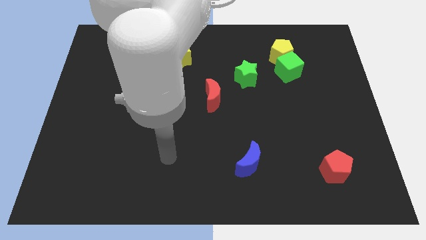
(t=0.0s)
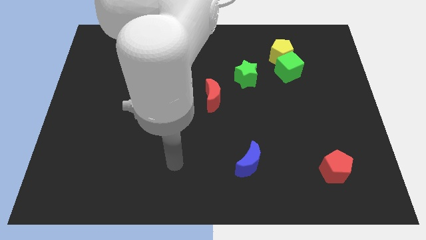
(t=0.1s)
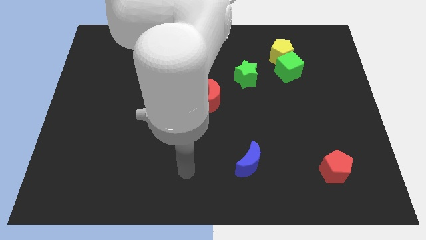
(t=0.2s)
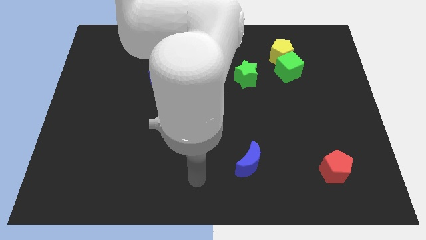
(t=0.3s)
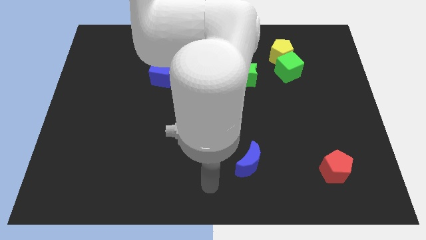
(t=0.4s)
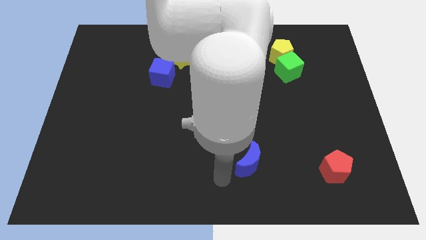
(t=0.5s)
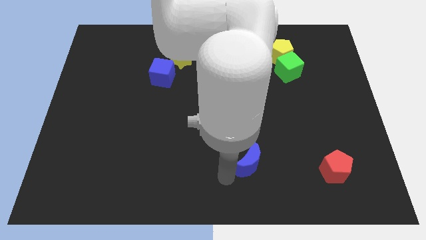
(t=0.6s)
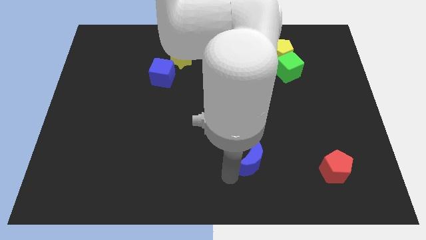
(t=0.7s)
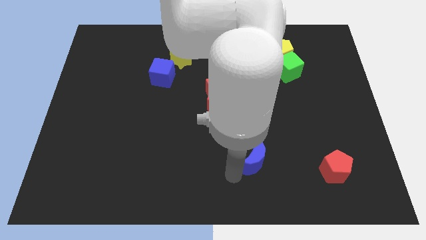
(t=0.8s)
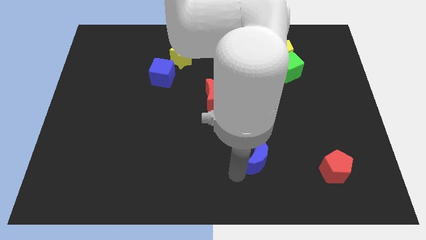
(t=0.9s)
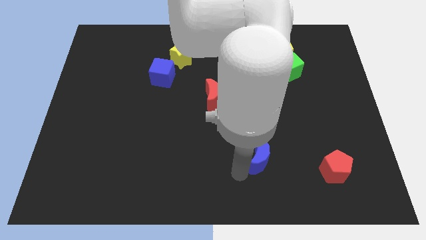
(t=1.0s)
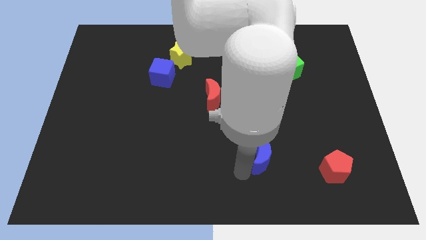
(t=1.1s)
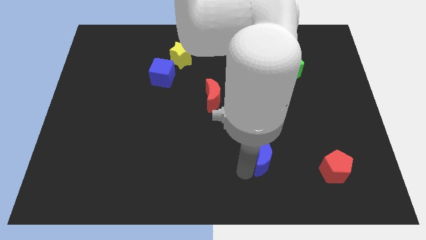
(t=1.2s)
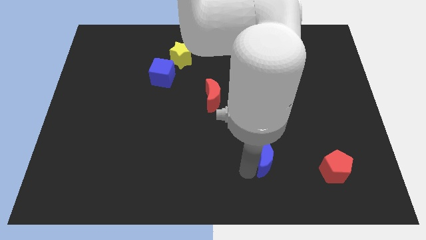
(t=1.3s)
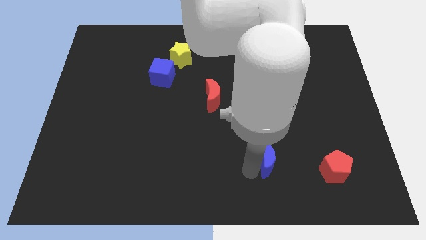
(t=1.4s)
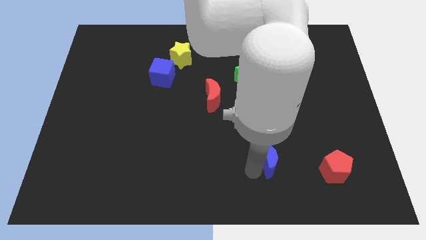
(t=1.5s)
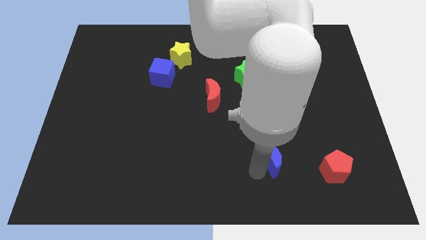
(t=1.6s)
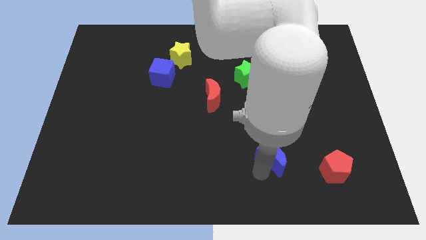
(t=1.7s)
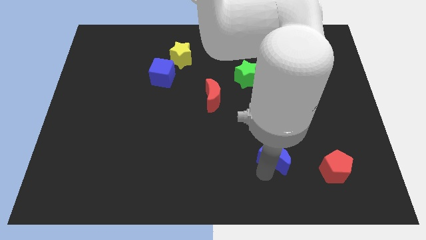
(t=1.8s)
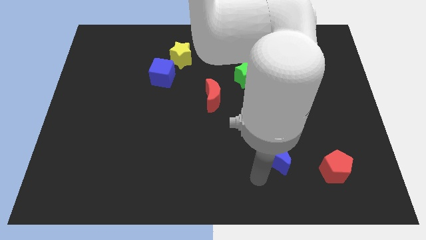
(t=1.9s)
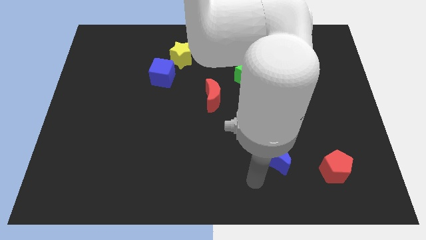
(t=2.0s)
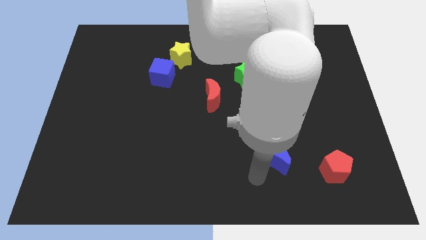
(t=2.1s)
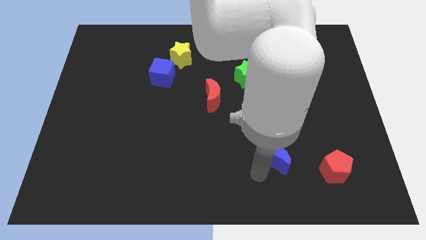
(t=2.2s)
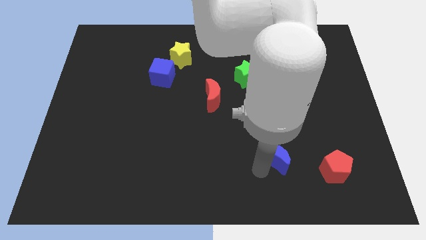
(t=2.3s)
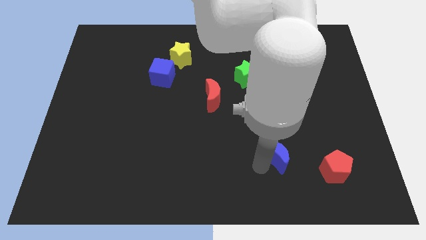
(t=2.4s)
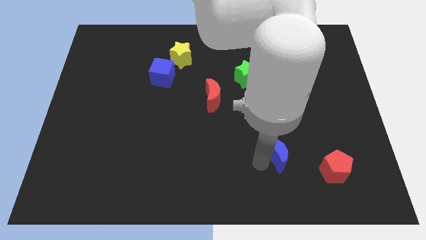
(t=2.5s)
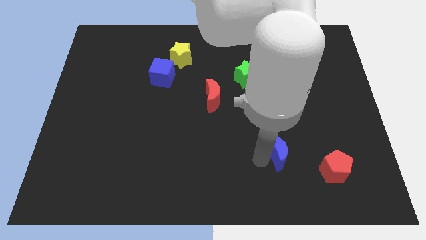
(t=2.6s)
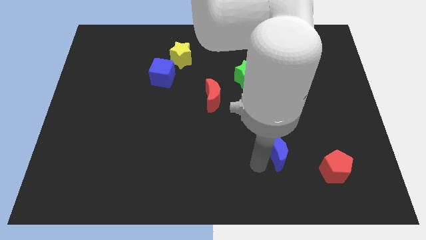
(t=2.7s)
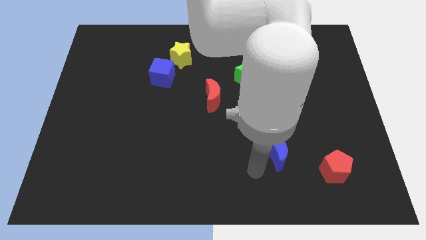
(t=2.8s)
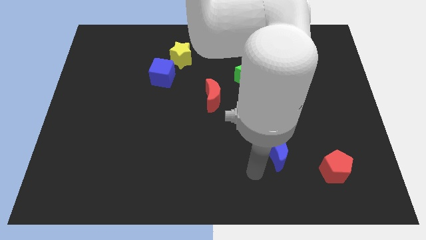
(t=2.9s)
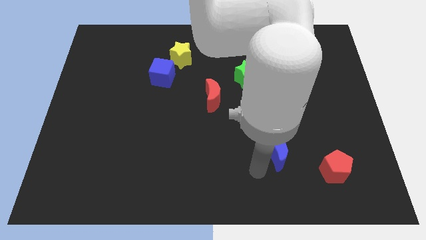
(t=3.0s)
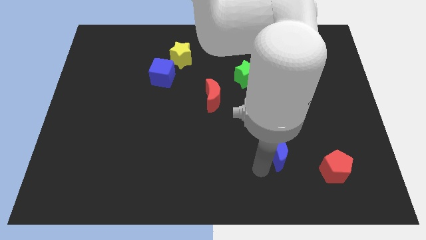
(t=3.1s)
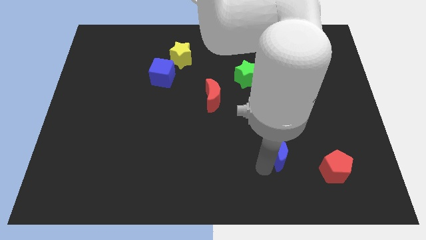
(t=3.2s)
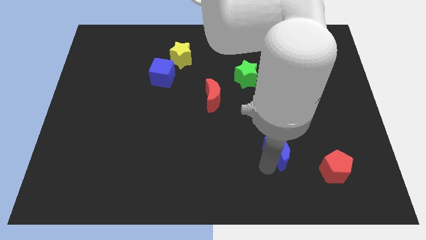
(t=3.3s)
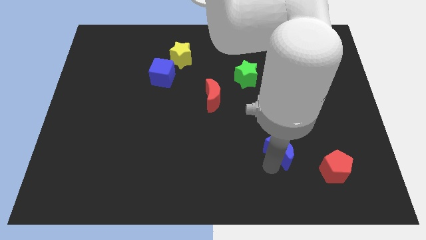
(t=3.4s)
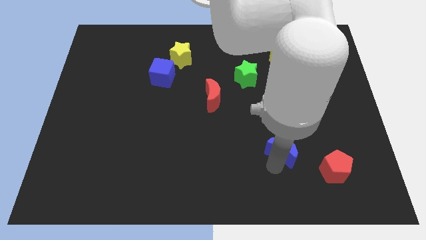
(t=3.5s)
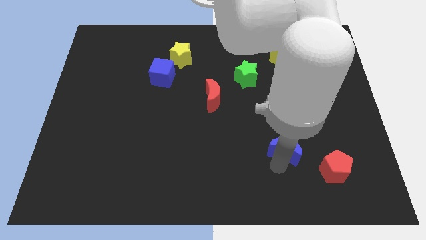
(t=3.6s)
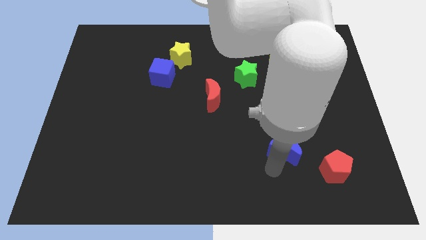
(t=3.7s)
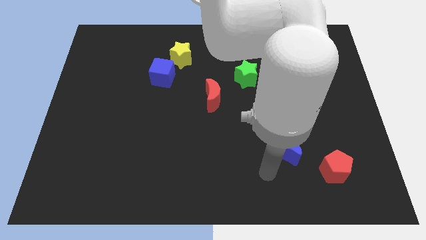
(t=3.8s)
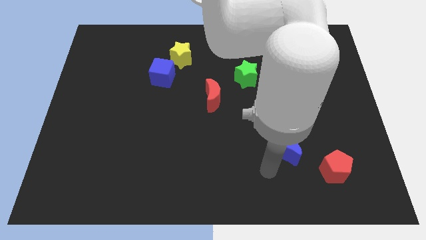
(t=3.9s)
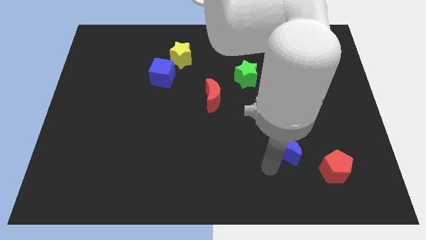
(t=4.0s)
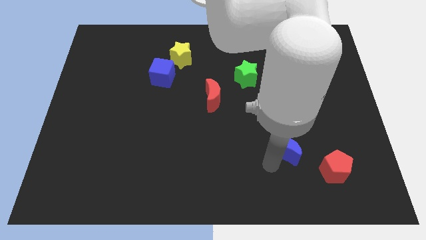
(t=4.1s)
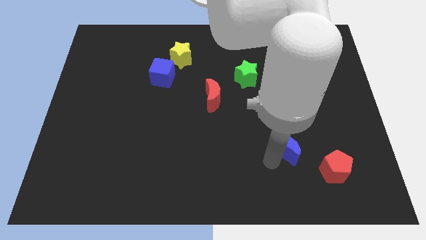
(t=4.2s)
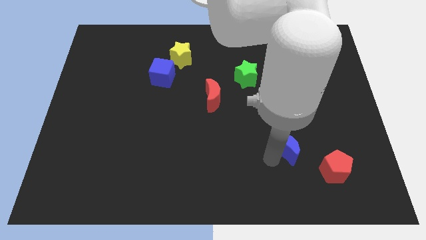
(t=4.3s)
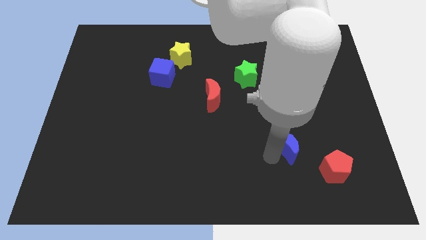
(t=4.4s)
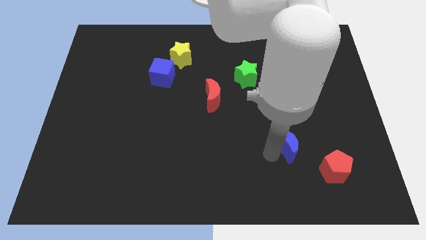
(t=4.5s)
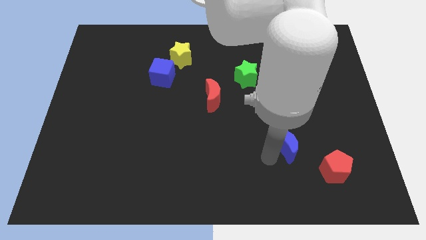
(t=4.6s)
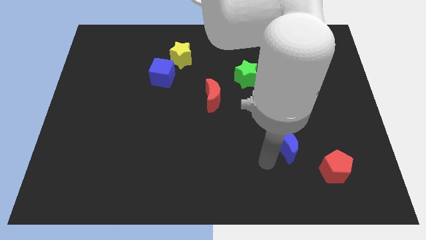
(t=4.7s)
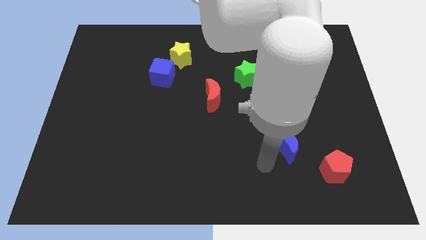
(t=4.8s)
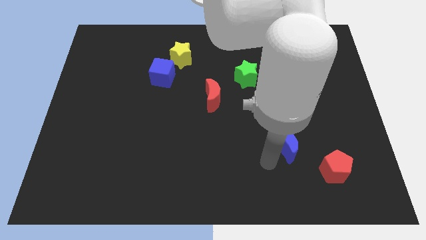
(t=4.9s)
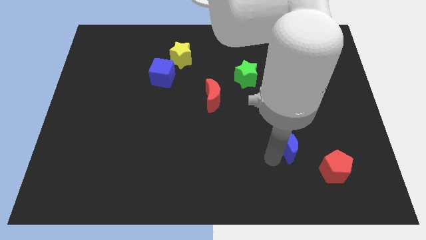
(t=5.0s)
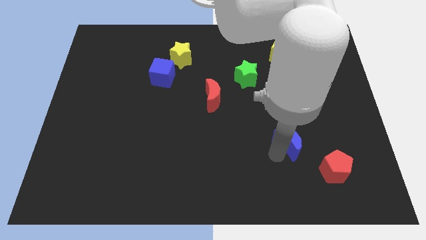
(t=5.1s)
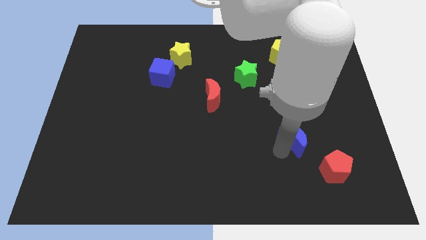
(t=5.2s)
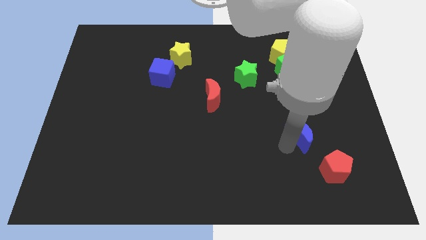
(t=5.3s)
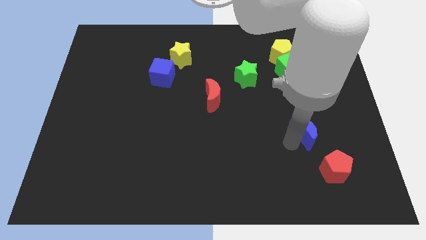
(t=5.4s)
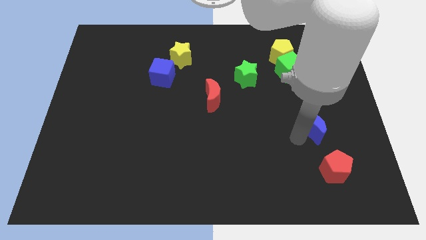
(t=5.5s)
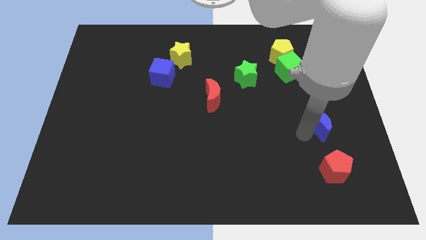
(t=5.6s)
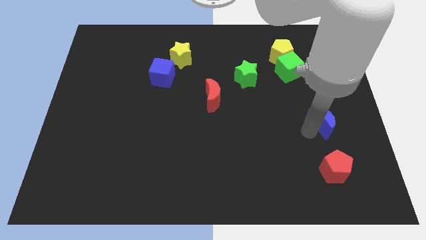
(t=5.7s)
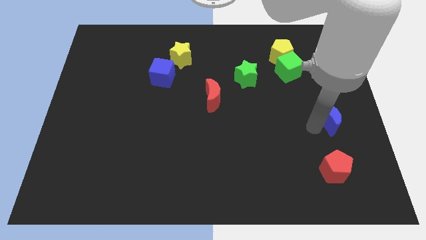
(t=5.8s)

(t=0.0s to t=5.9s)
move the blue moon to the right side of the board

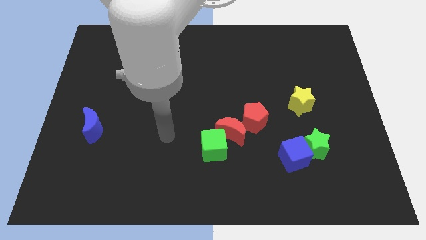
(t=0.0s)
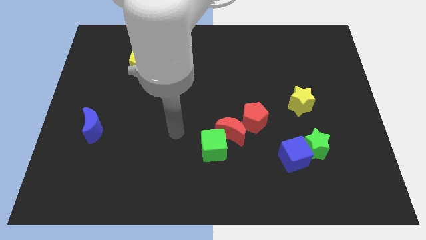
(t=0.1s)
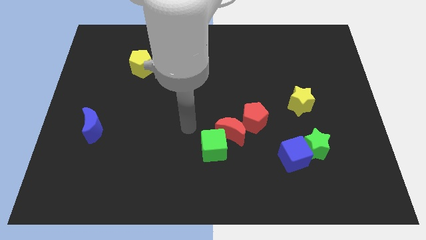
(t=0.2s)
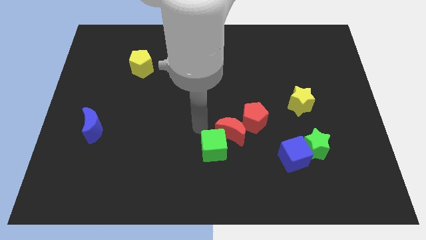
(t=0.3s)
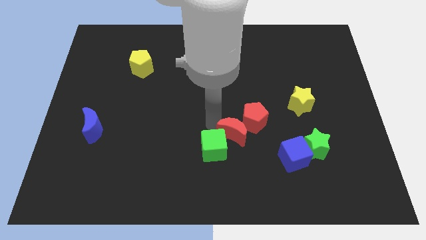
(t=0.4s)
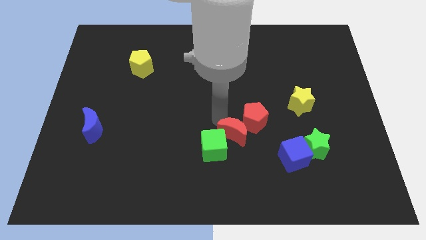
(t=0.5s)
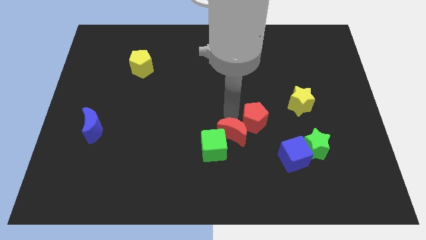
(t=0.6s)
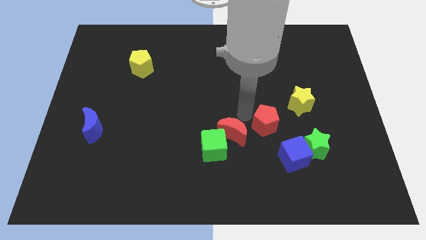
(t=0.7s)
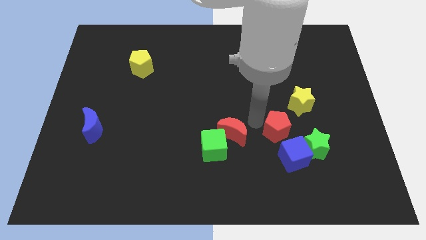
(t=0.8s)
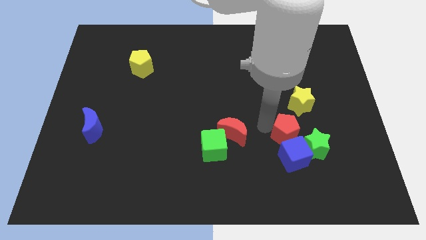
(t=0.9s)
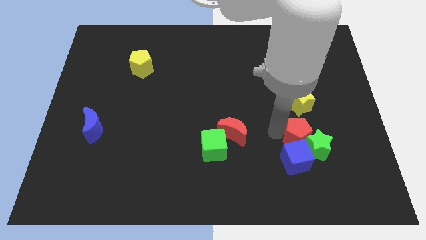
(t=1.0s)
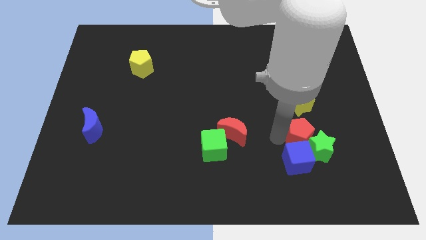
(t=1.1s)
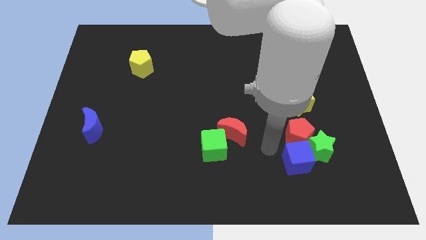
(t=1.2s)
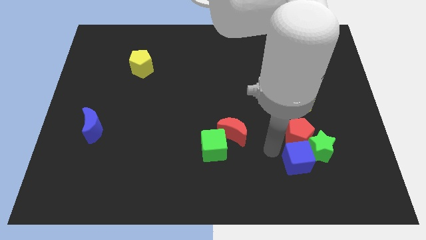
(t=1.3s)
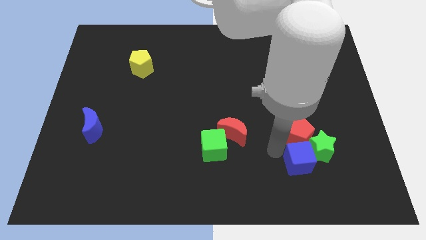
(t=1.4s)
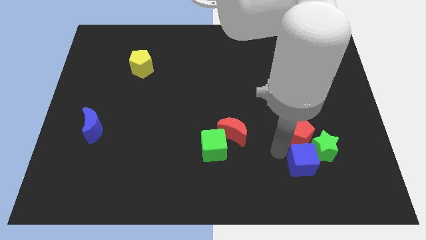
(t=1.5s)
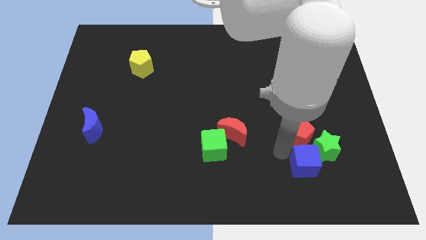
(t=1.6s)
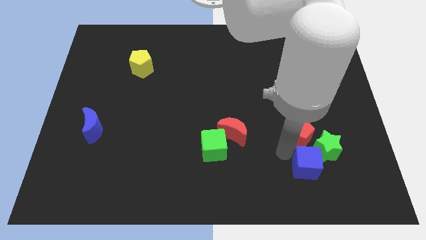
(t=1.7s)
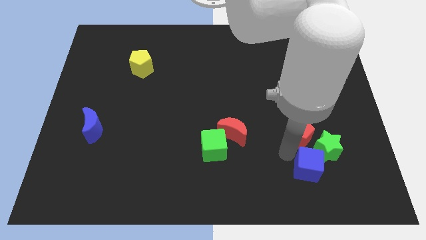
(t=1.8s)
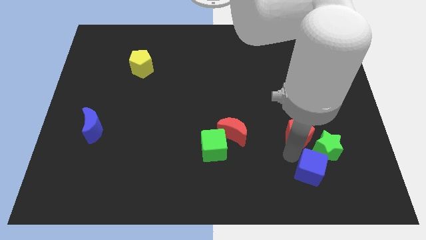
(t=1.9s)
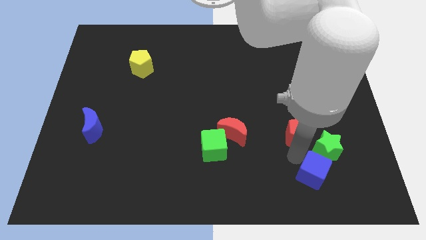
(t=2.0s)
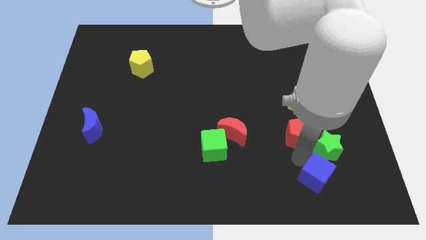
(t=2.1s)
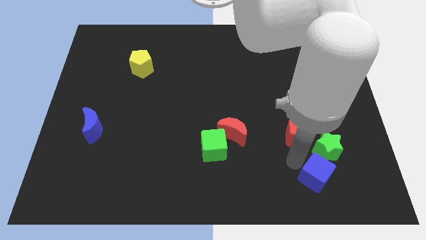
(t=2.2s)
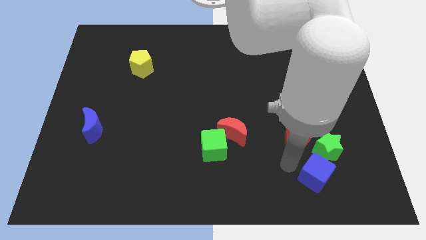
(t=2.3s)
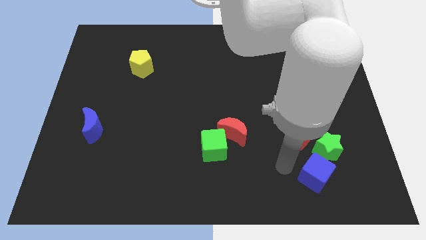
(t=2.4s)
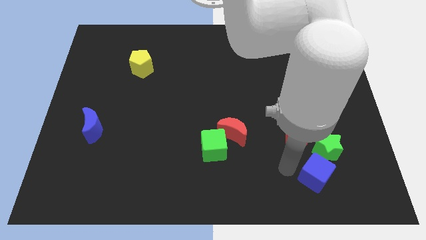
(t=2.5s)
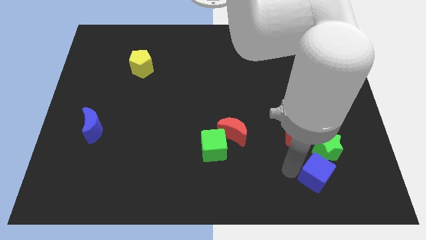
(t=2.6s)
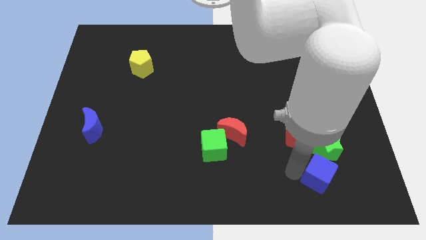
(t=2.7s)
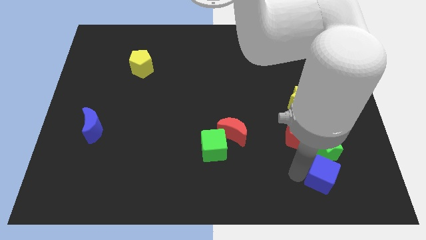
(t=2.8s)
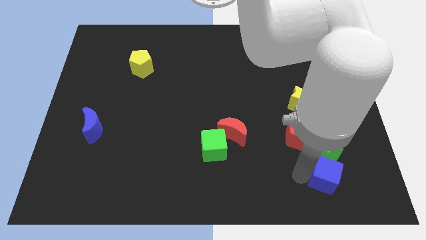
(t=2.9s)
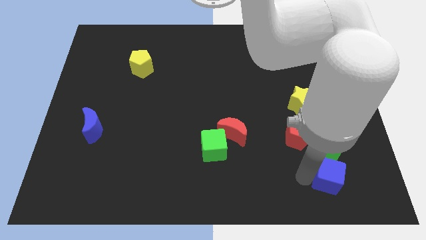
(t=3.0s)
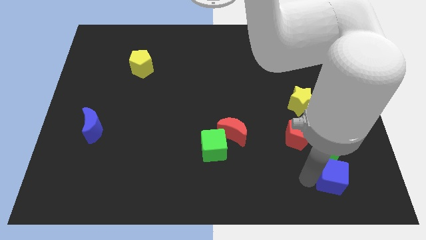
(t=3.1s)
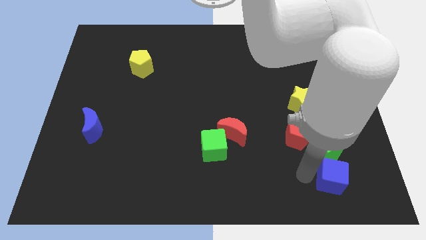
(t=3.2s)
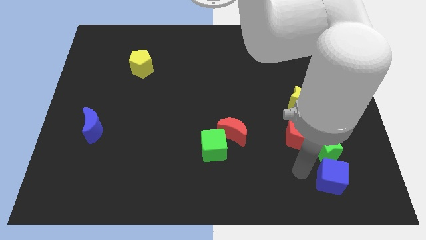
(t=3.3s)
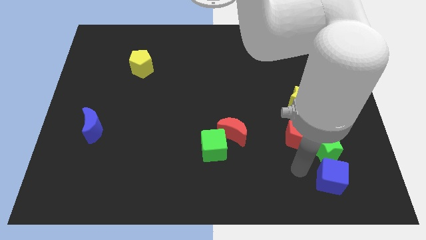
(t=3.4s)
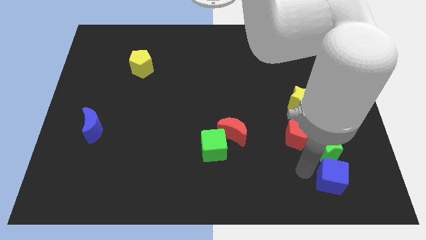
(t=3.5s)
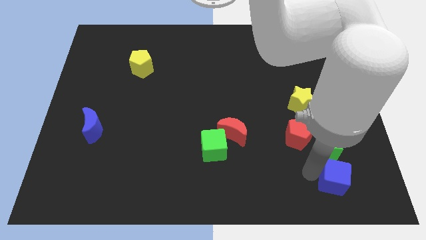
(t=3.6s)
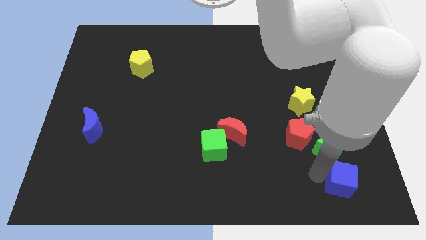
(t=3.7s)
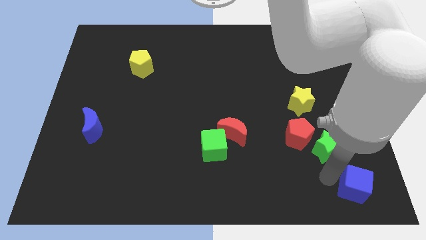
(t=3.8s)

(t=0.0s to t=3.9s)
slide the blue cube to the bottom right corner
